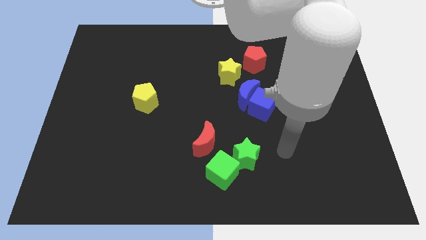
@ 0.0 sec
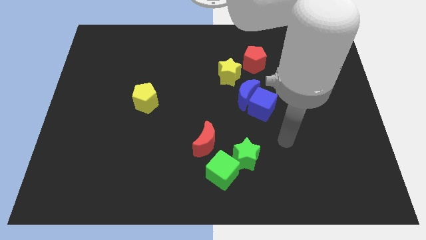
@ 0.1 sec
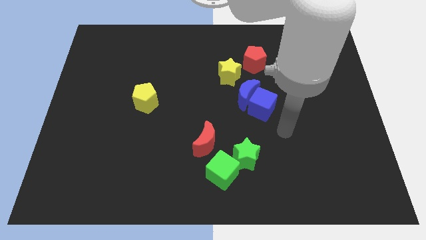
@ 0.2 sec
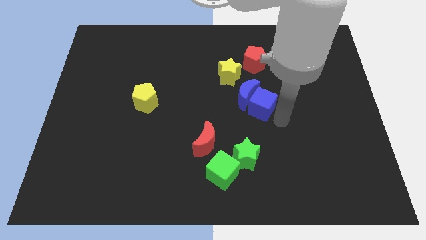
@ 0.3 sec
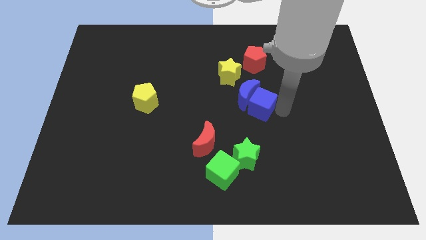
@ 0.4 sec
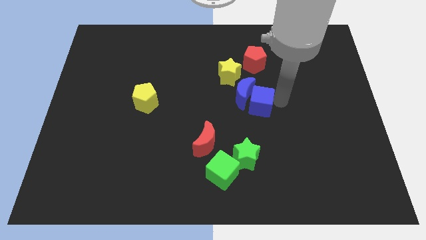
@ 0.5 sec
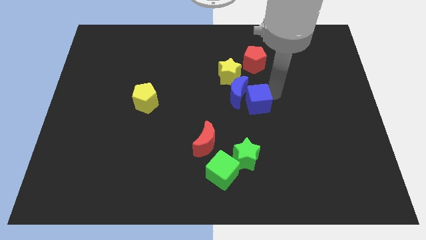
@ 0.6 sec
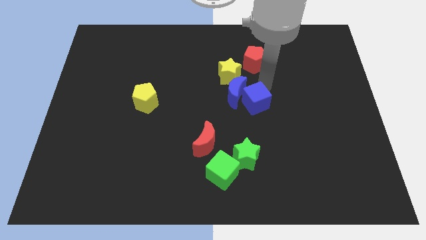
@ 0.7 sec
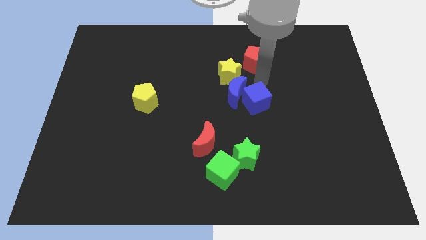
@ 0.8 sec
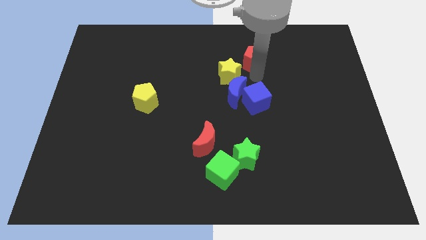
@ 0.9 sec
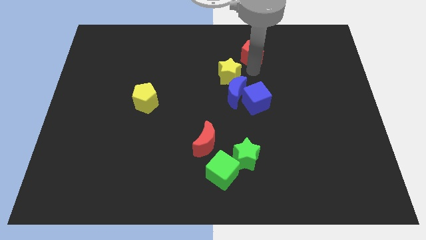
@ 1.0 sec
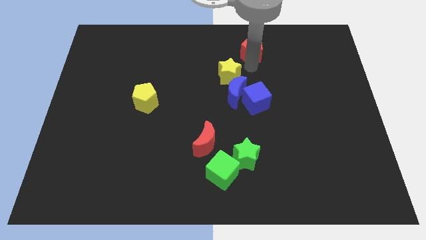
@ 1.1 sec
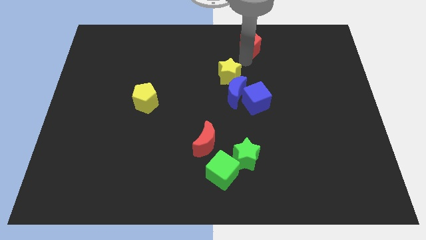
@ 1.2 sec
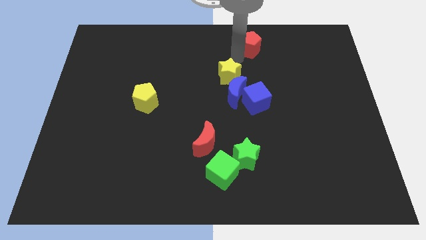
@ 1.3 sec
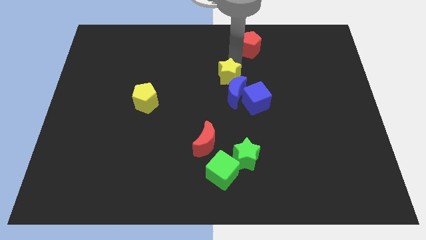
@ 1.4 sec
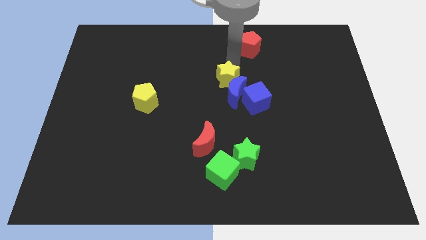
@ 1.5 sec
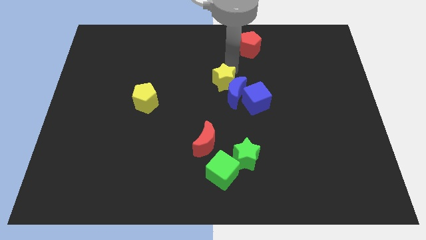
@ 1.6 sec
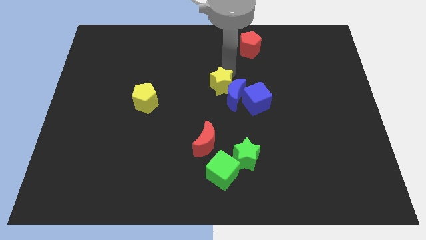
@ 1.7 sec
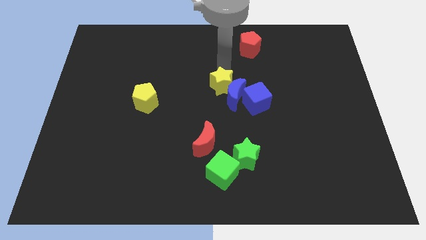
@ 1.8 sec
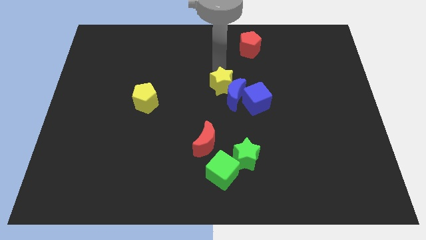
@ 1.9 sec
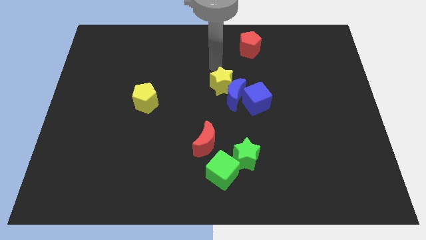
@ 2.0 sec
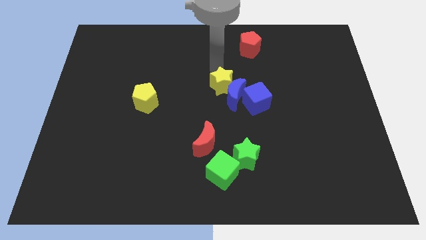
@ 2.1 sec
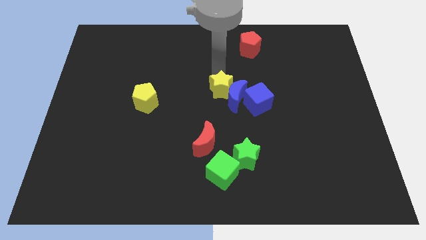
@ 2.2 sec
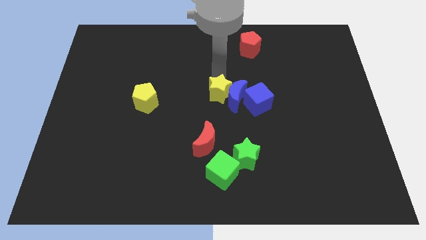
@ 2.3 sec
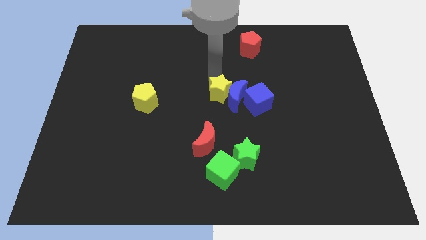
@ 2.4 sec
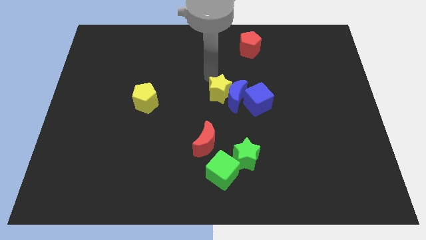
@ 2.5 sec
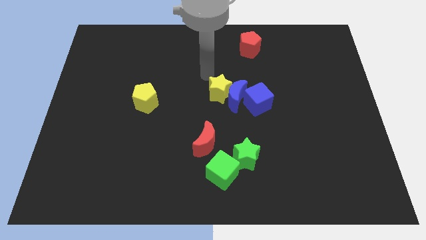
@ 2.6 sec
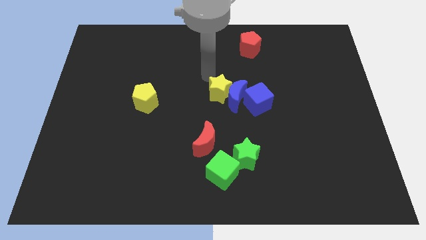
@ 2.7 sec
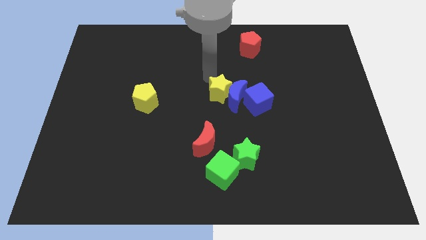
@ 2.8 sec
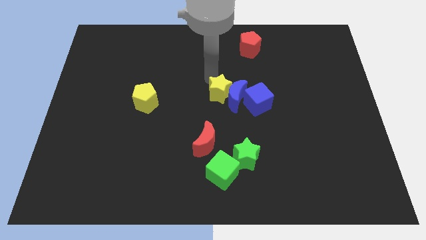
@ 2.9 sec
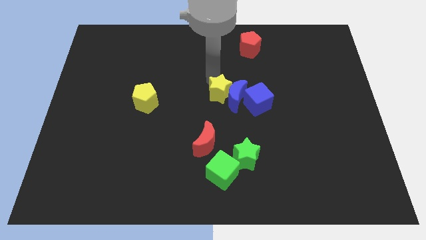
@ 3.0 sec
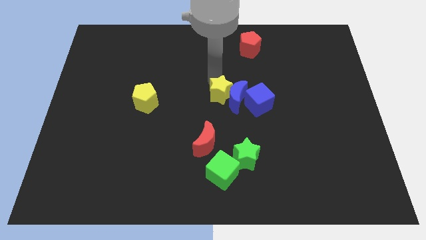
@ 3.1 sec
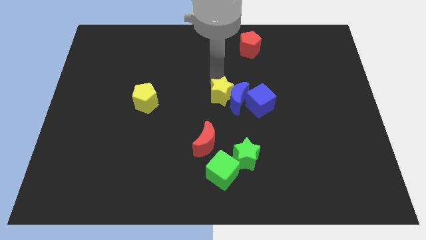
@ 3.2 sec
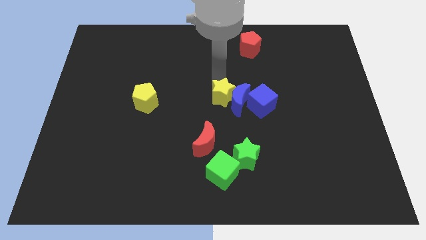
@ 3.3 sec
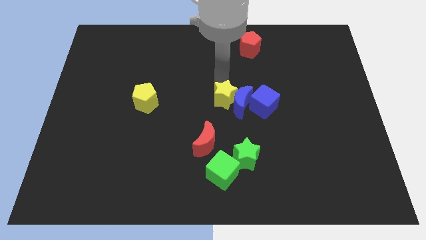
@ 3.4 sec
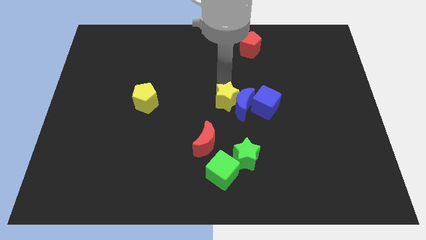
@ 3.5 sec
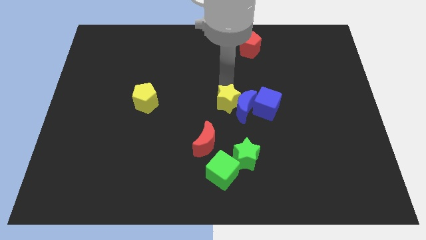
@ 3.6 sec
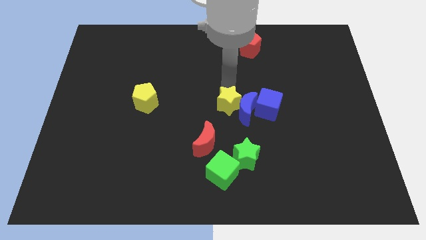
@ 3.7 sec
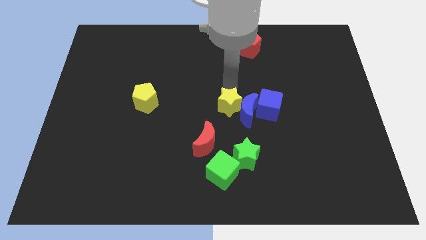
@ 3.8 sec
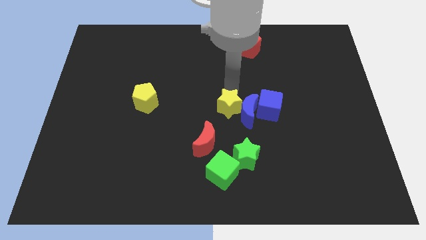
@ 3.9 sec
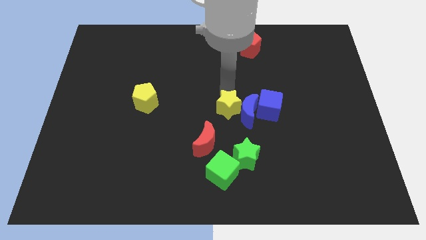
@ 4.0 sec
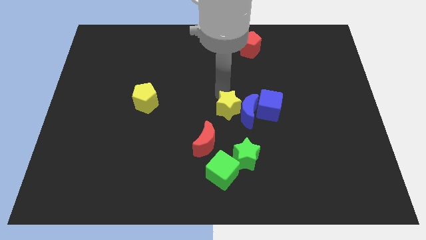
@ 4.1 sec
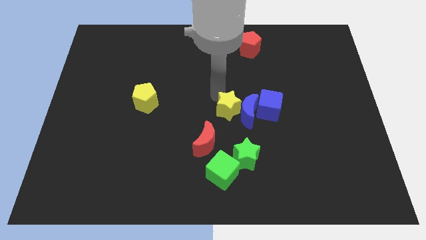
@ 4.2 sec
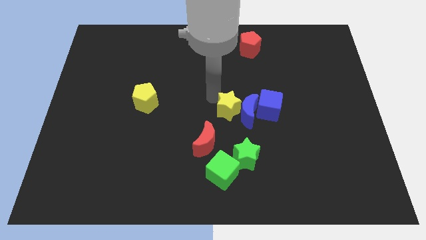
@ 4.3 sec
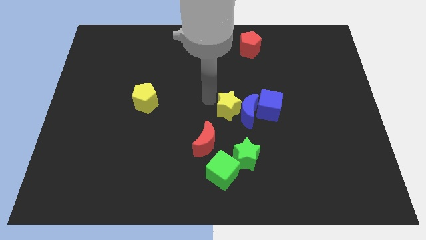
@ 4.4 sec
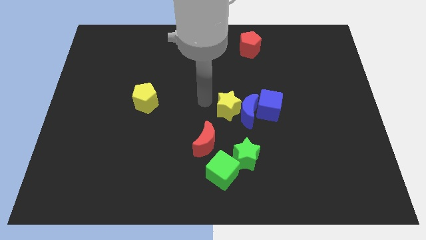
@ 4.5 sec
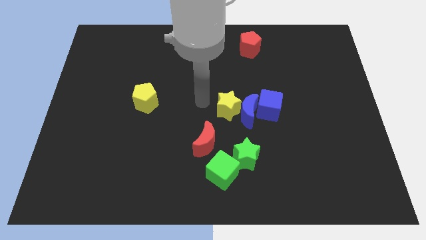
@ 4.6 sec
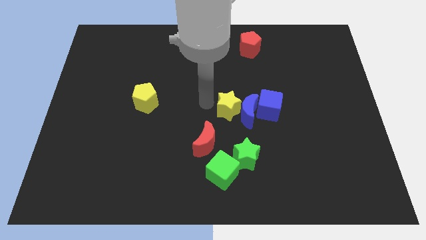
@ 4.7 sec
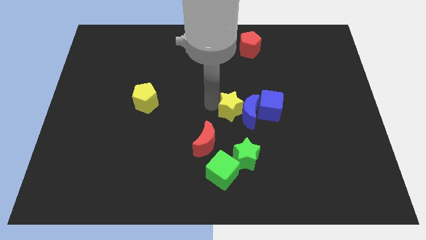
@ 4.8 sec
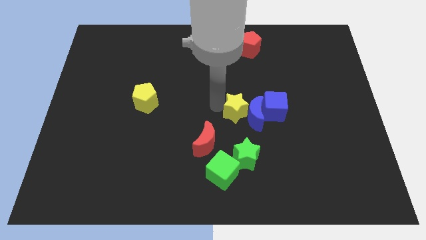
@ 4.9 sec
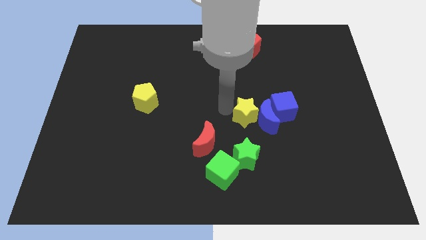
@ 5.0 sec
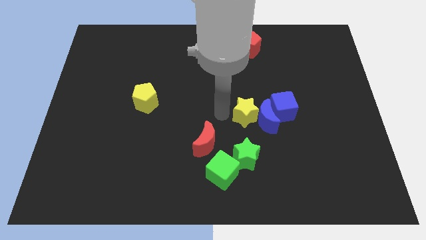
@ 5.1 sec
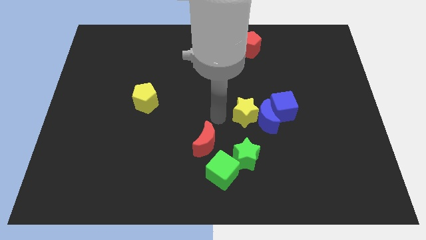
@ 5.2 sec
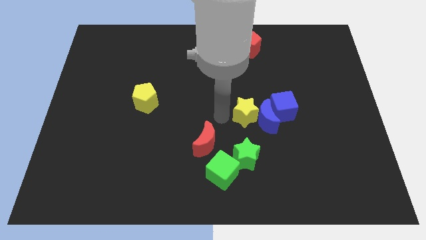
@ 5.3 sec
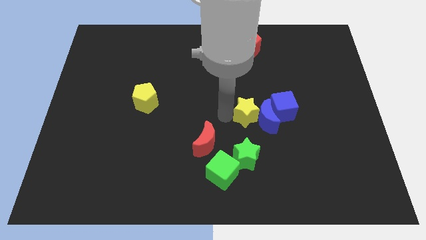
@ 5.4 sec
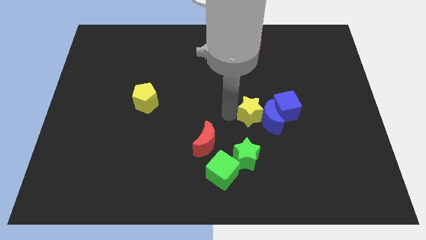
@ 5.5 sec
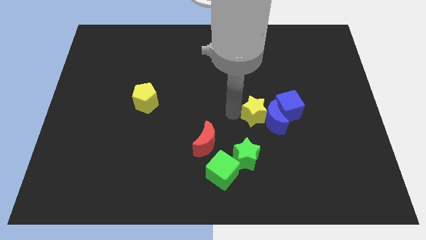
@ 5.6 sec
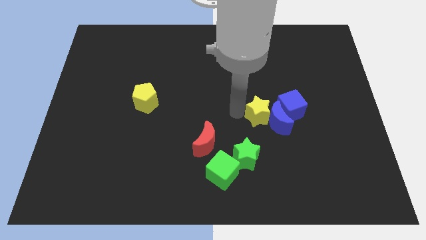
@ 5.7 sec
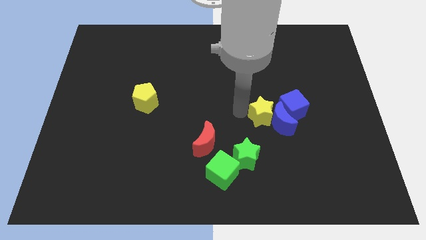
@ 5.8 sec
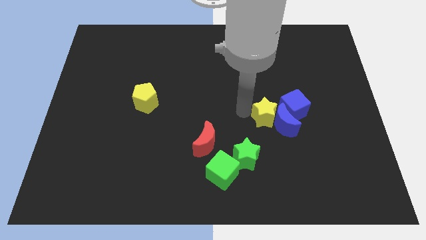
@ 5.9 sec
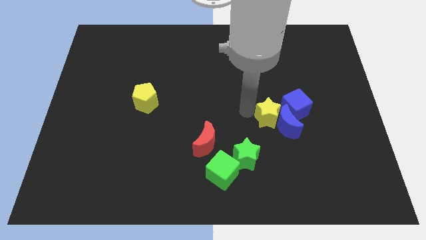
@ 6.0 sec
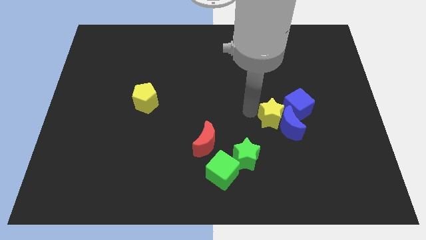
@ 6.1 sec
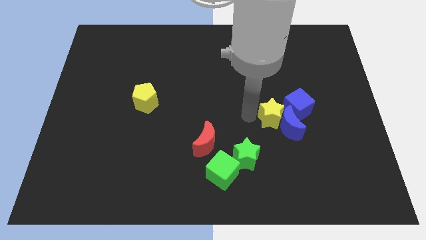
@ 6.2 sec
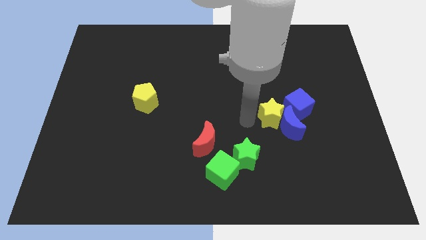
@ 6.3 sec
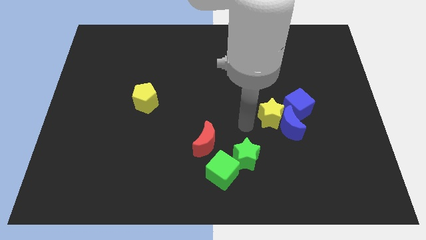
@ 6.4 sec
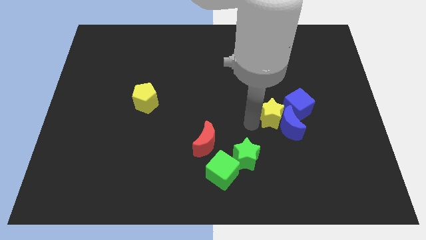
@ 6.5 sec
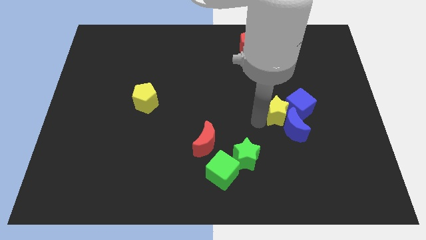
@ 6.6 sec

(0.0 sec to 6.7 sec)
slide the yellow star next to the blue cube

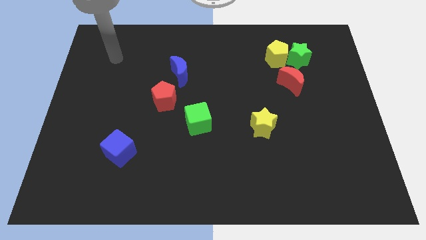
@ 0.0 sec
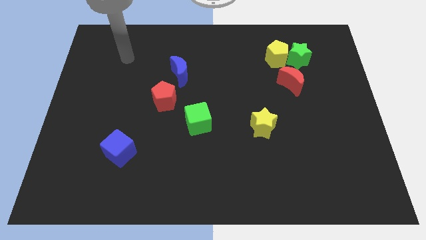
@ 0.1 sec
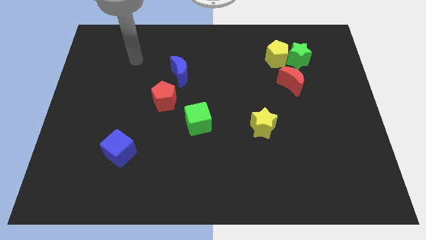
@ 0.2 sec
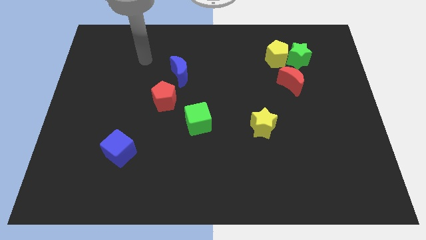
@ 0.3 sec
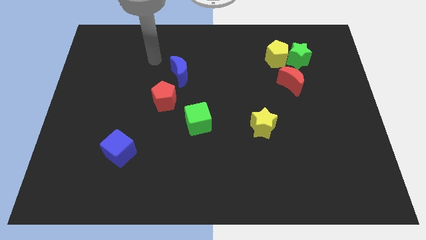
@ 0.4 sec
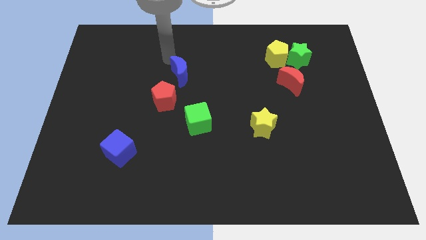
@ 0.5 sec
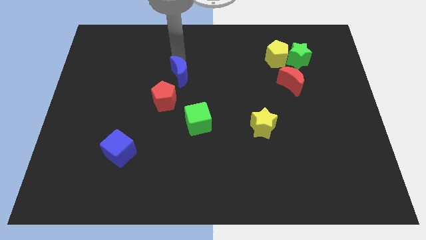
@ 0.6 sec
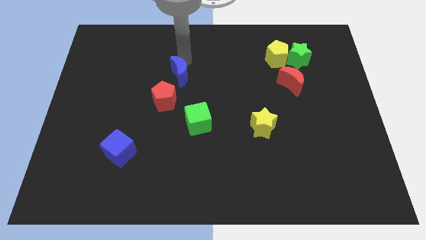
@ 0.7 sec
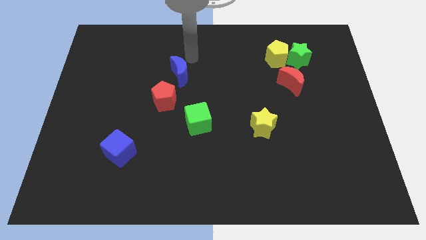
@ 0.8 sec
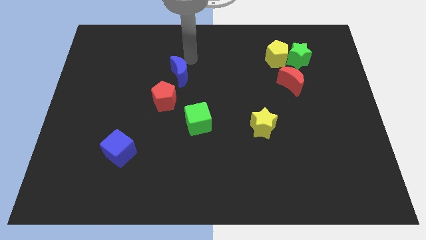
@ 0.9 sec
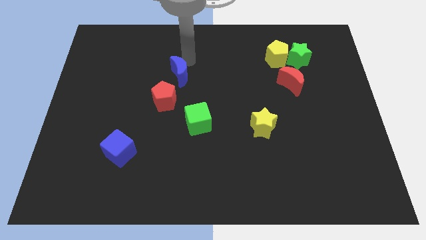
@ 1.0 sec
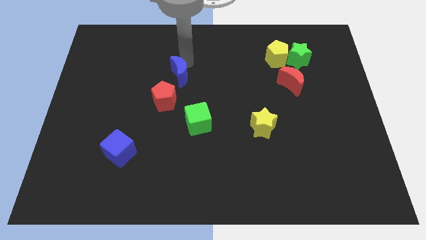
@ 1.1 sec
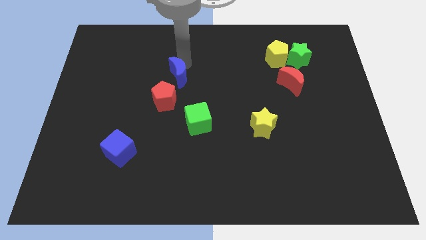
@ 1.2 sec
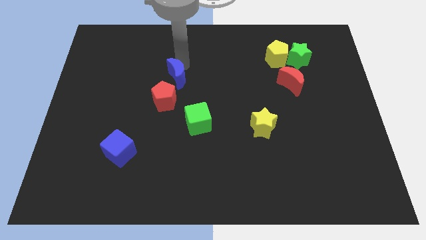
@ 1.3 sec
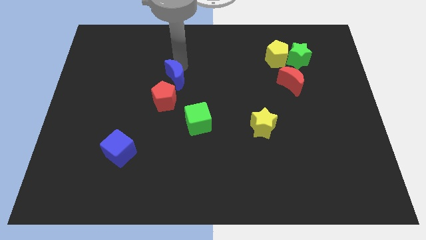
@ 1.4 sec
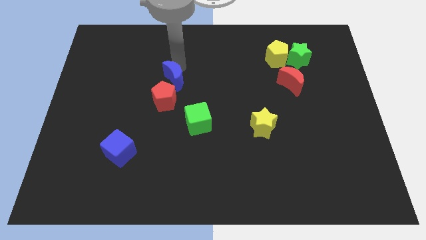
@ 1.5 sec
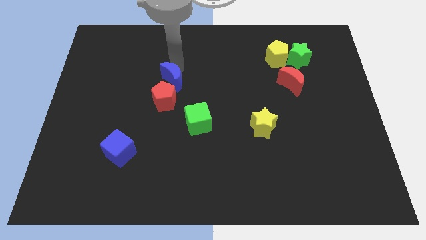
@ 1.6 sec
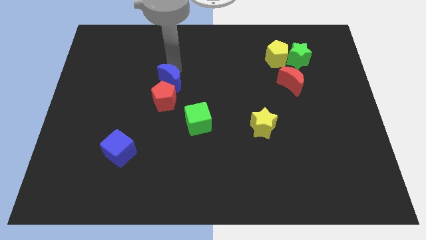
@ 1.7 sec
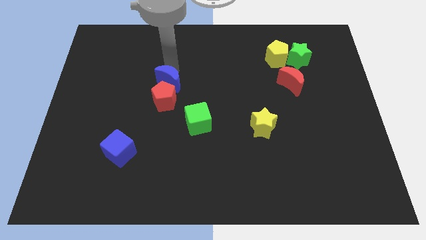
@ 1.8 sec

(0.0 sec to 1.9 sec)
slide the blue moon towards the red pentagon
